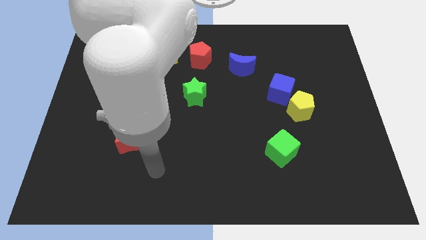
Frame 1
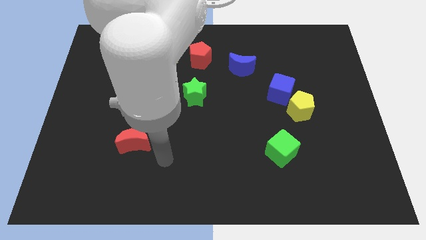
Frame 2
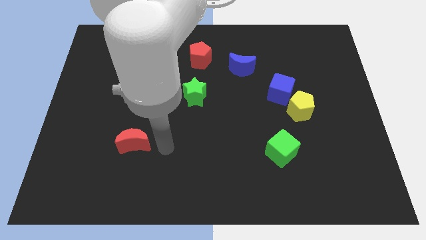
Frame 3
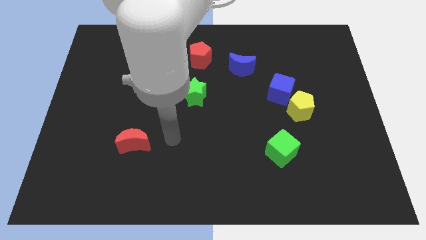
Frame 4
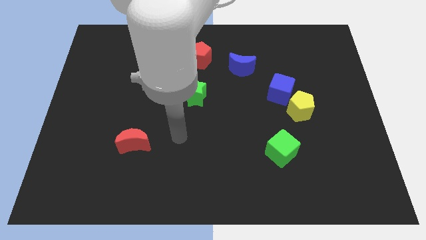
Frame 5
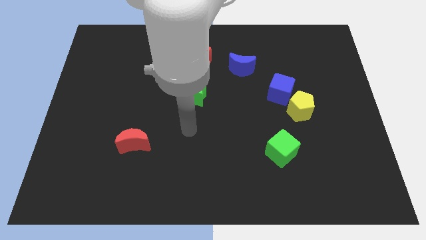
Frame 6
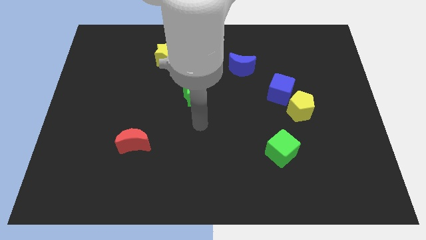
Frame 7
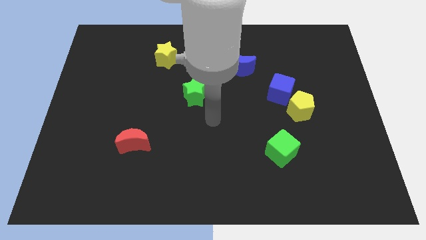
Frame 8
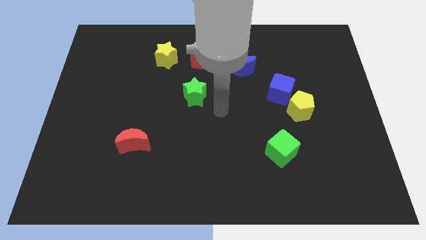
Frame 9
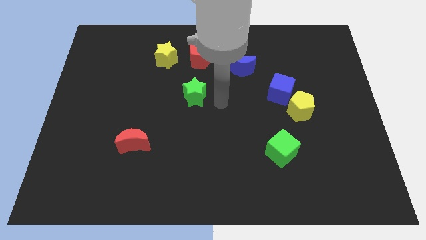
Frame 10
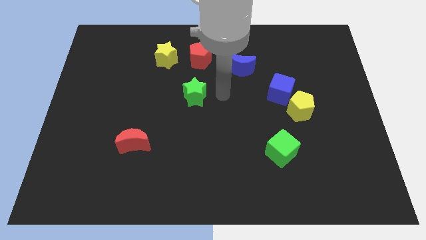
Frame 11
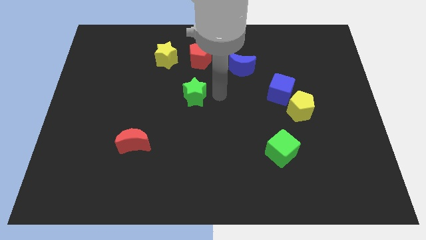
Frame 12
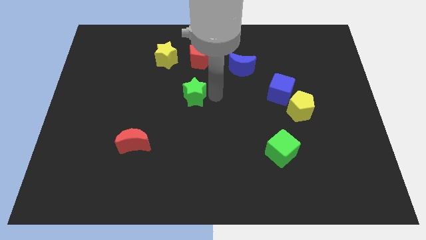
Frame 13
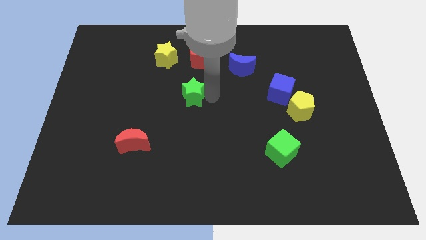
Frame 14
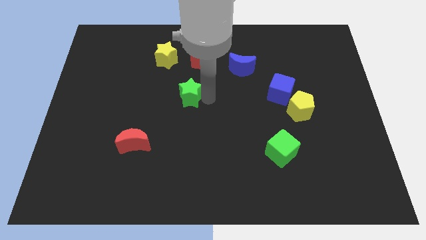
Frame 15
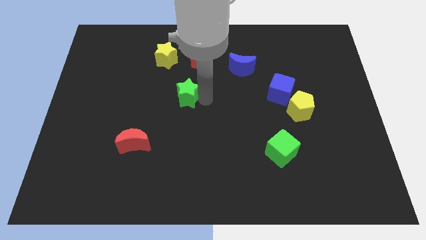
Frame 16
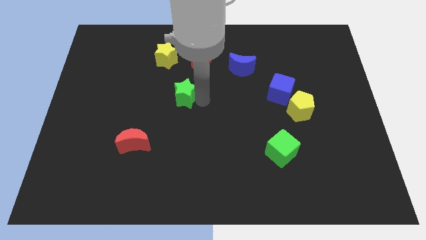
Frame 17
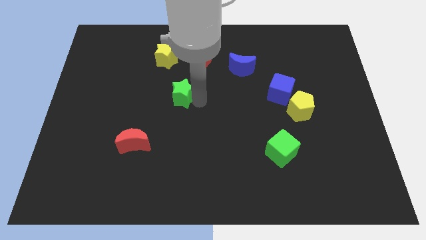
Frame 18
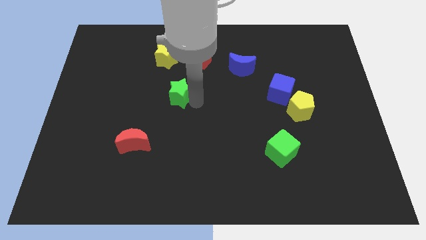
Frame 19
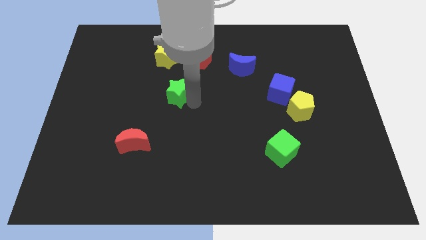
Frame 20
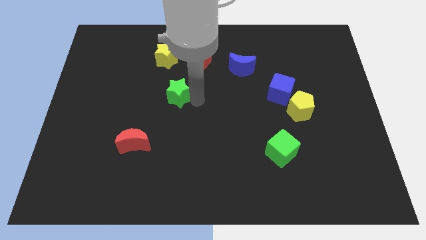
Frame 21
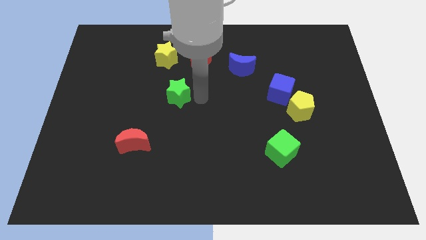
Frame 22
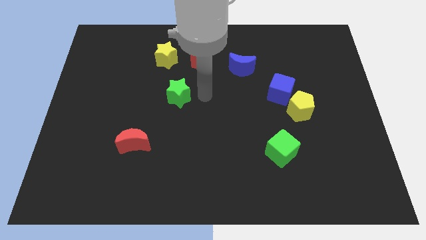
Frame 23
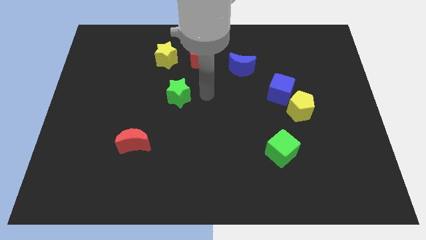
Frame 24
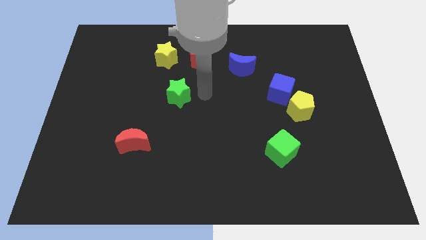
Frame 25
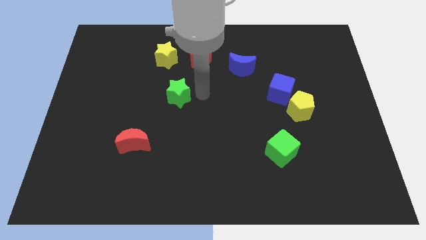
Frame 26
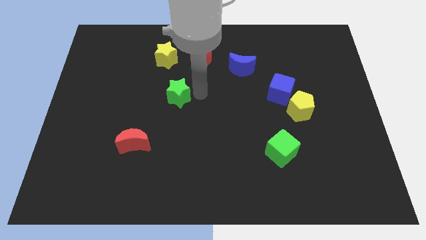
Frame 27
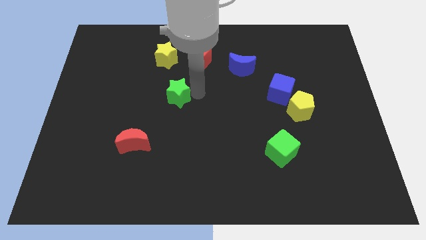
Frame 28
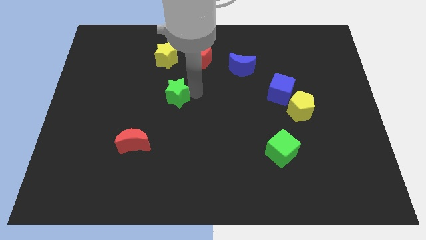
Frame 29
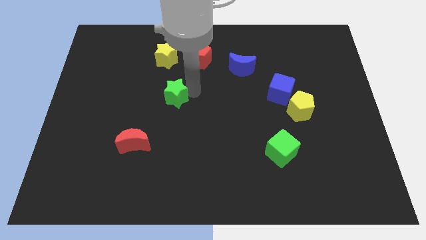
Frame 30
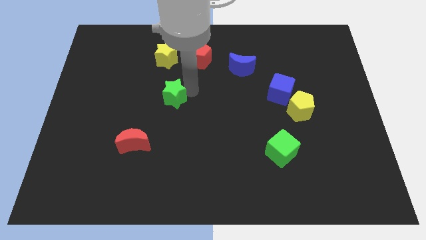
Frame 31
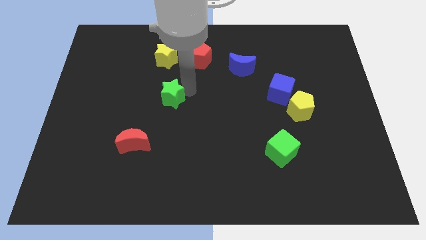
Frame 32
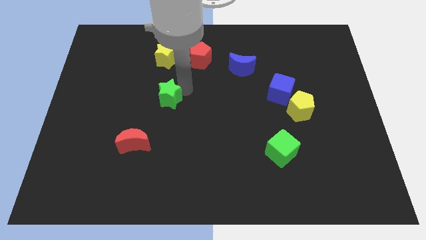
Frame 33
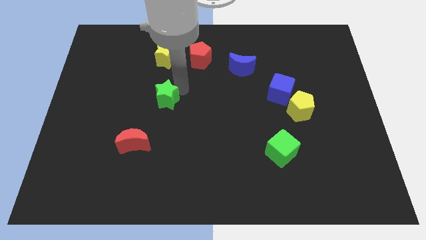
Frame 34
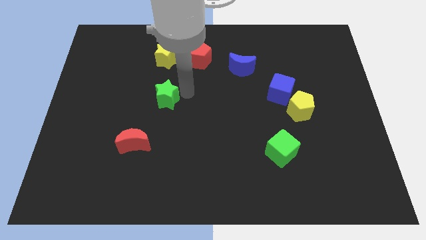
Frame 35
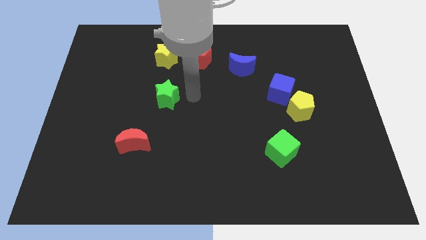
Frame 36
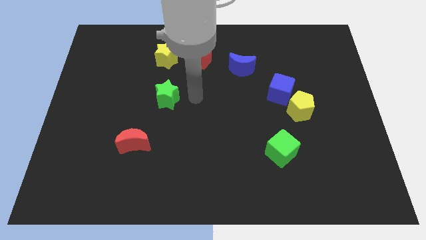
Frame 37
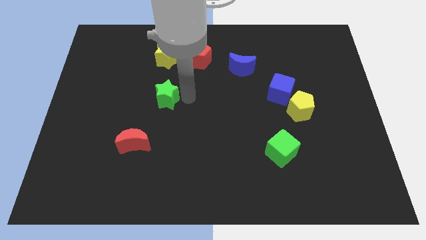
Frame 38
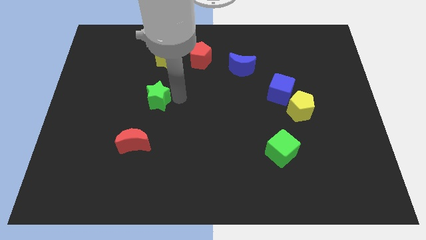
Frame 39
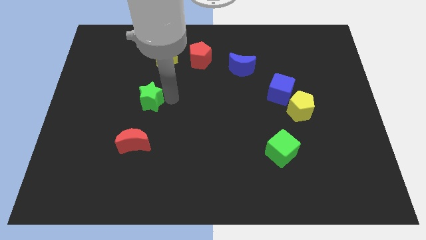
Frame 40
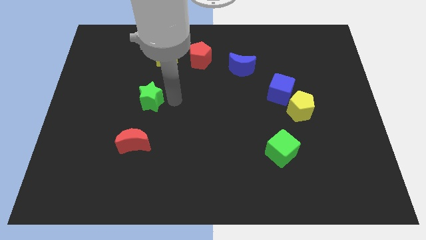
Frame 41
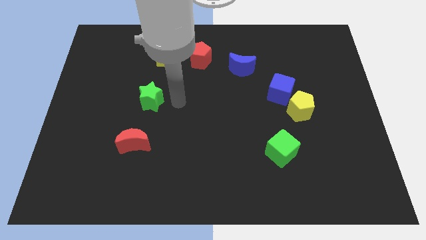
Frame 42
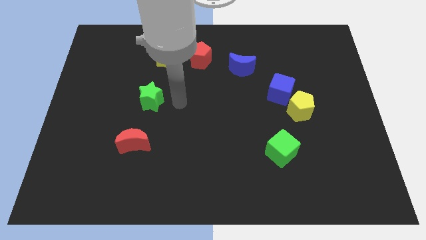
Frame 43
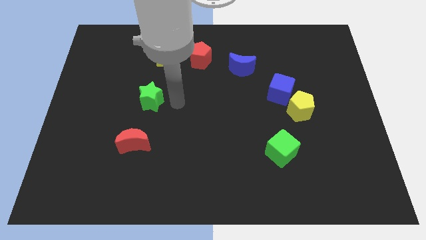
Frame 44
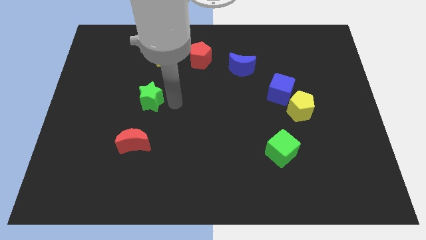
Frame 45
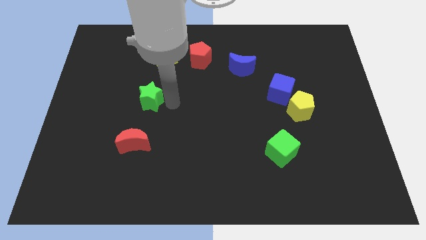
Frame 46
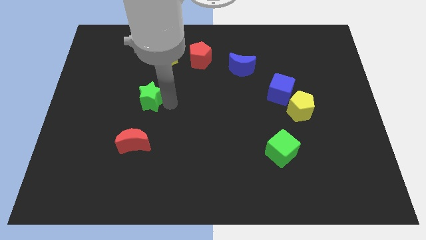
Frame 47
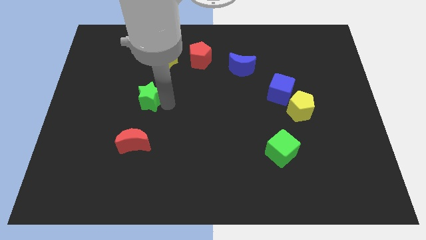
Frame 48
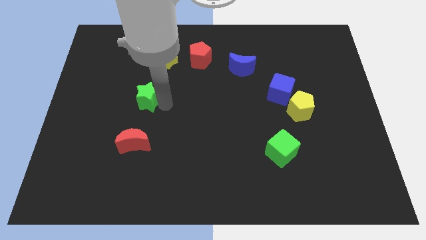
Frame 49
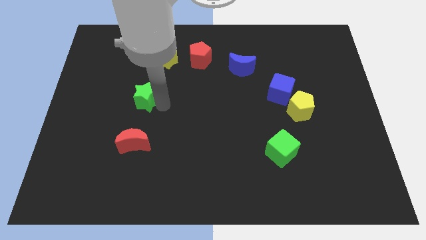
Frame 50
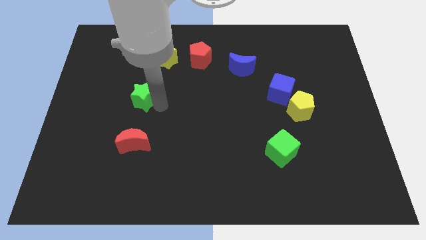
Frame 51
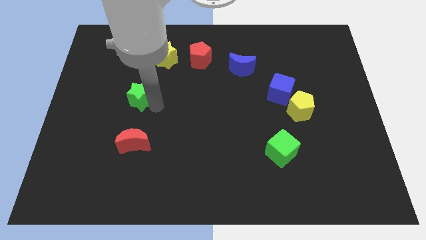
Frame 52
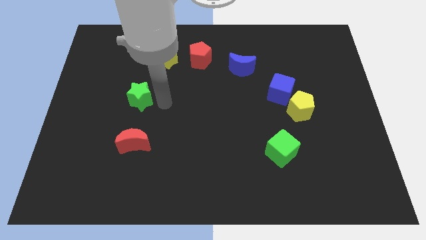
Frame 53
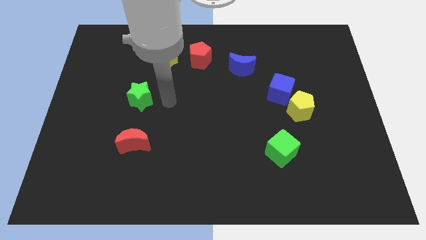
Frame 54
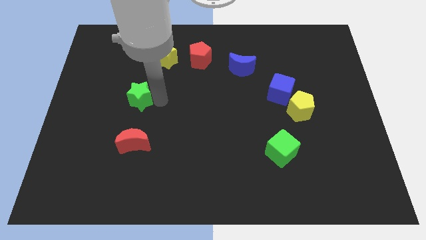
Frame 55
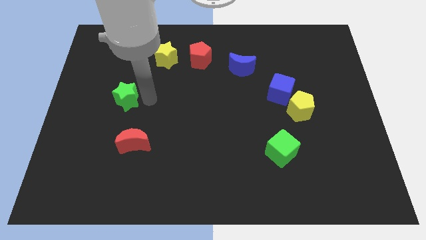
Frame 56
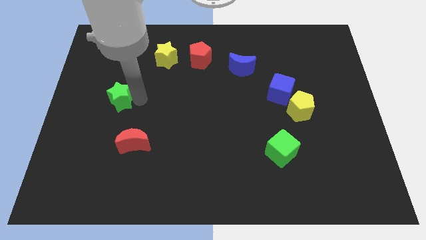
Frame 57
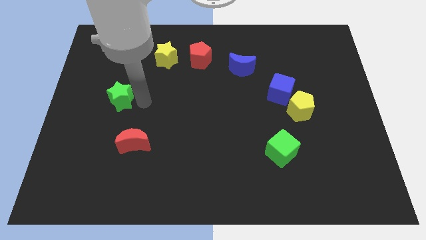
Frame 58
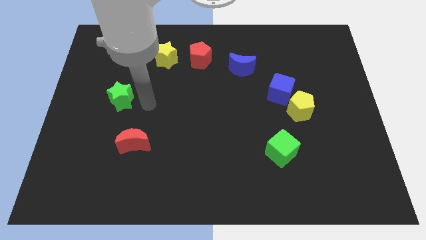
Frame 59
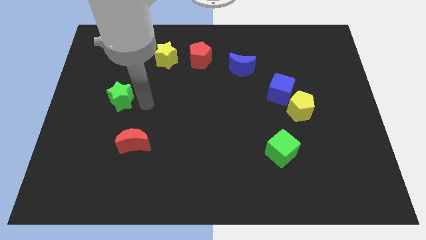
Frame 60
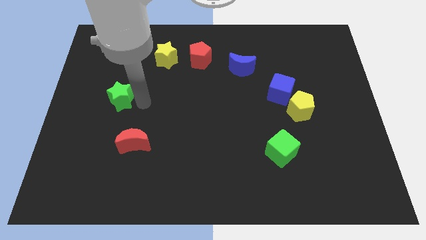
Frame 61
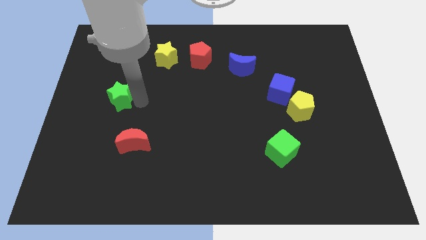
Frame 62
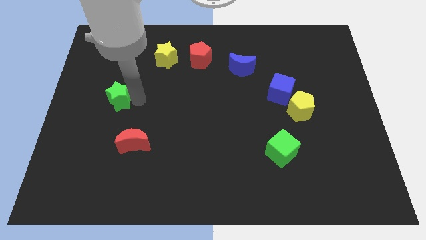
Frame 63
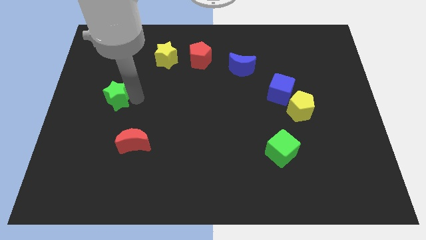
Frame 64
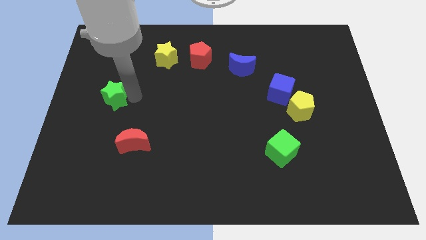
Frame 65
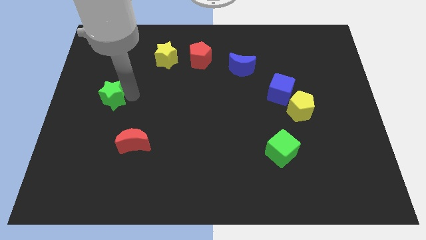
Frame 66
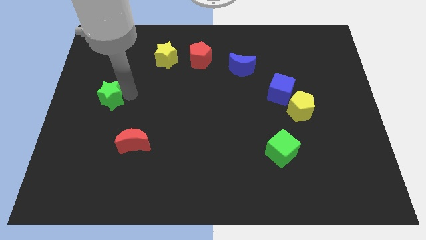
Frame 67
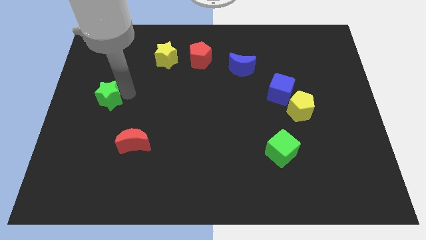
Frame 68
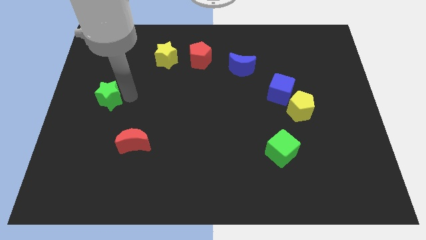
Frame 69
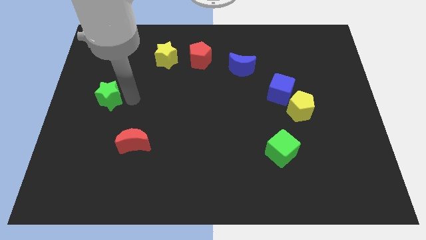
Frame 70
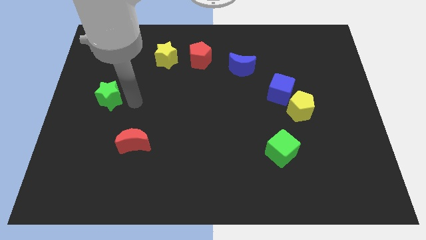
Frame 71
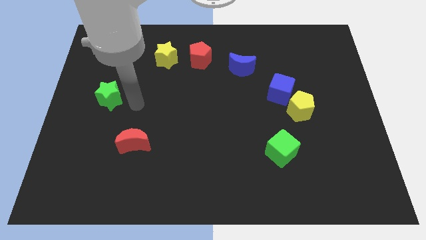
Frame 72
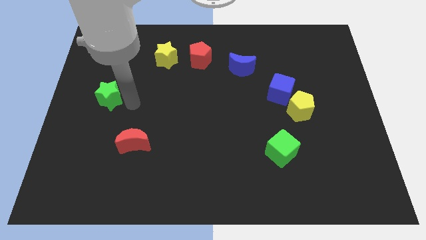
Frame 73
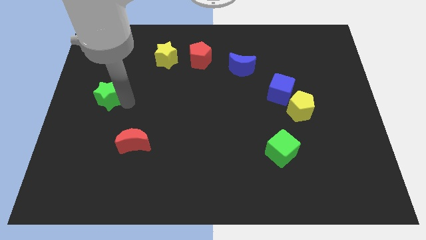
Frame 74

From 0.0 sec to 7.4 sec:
slide the green star to the center left
